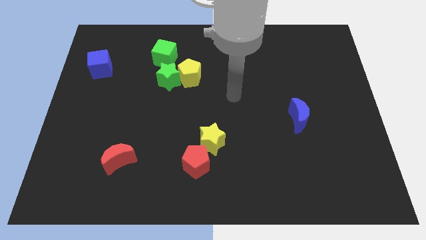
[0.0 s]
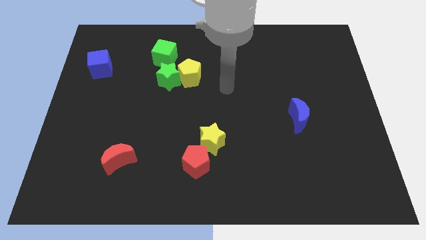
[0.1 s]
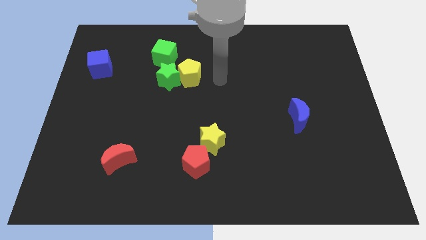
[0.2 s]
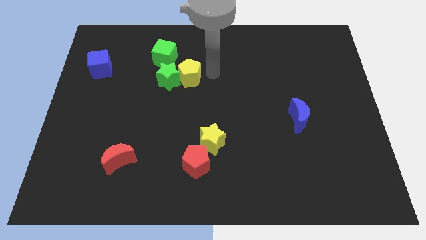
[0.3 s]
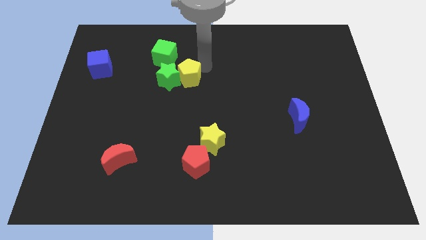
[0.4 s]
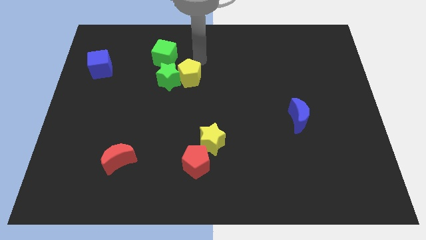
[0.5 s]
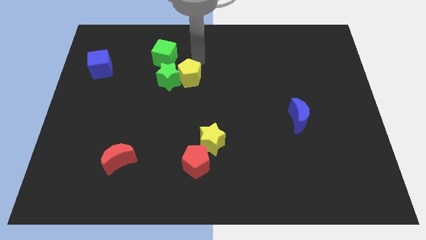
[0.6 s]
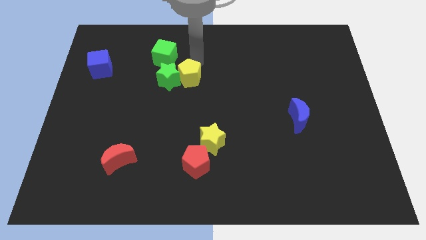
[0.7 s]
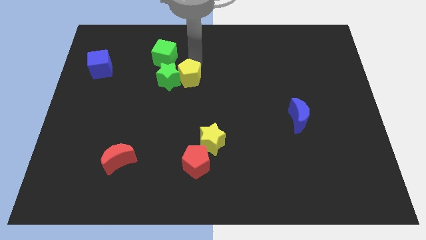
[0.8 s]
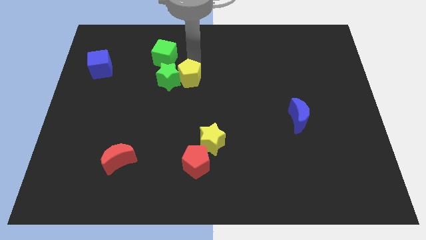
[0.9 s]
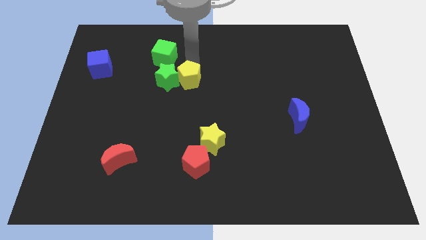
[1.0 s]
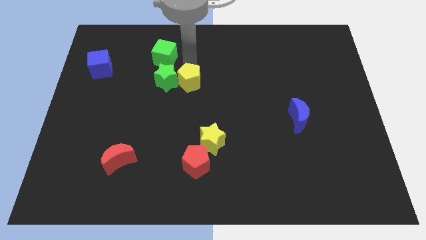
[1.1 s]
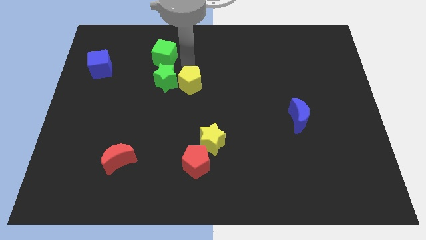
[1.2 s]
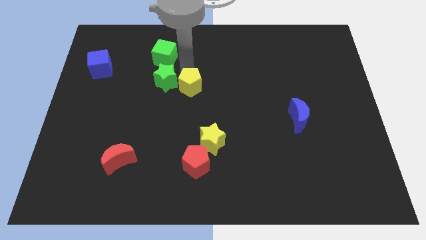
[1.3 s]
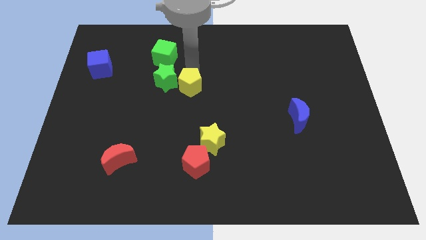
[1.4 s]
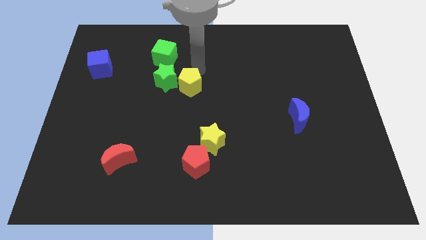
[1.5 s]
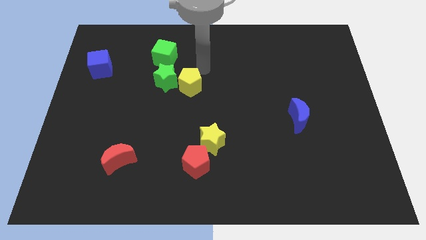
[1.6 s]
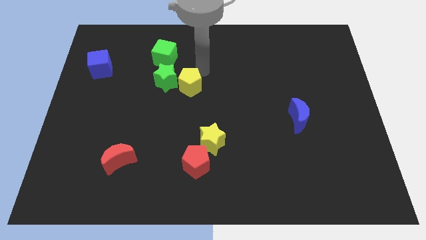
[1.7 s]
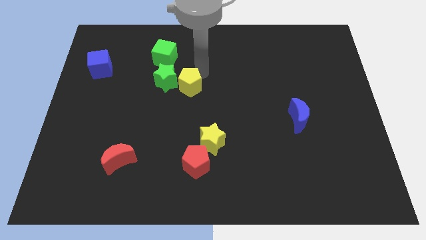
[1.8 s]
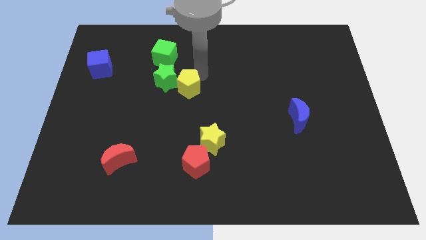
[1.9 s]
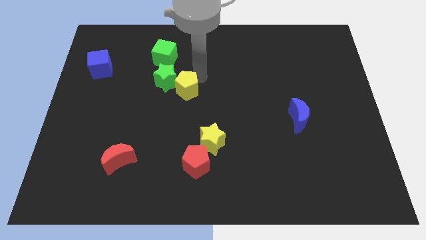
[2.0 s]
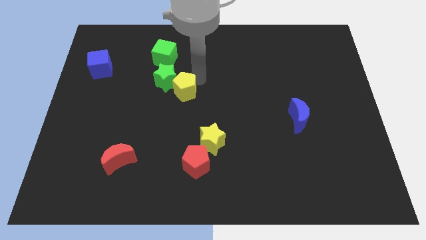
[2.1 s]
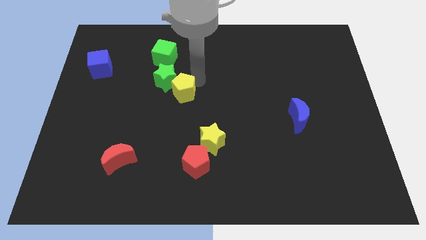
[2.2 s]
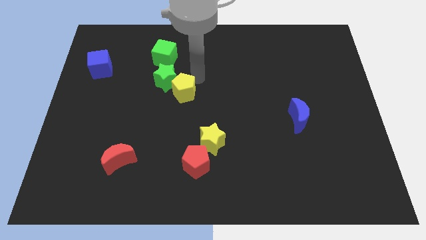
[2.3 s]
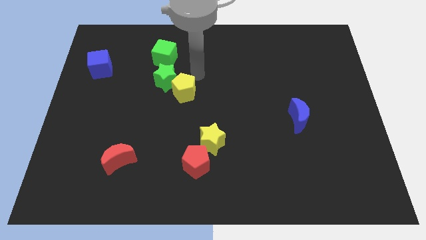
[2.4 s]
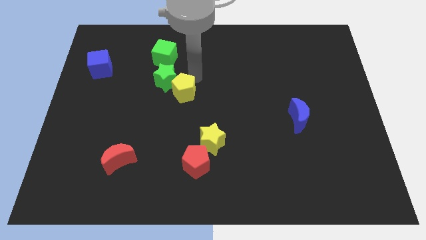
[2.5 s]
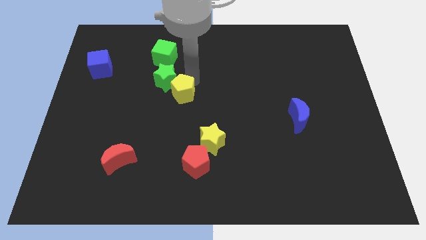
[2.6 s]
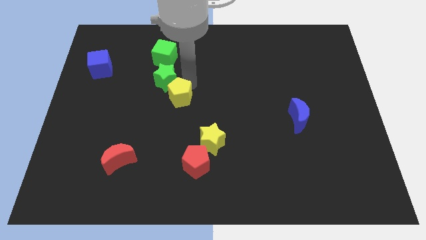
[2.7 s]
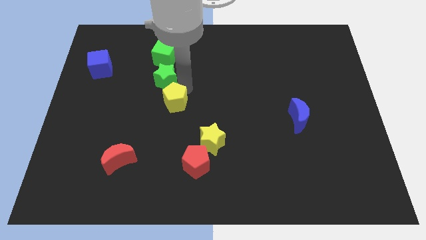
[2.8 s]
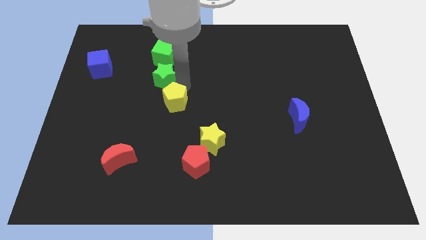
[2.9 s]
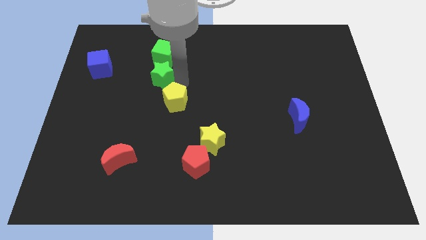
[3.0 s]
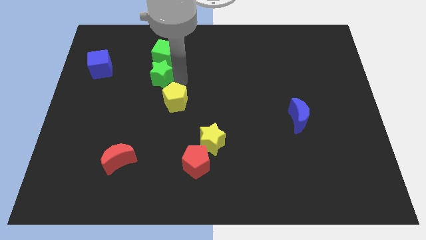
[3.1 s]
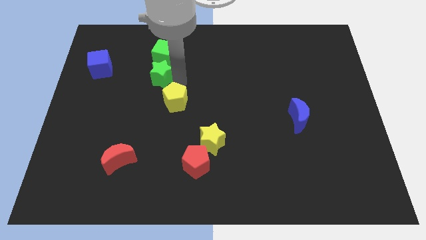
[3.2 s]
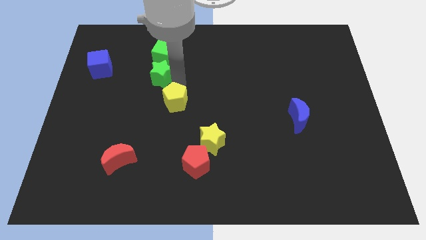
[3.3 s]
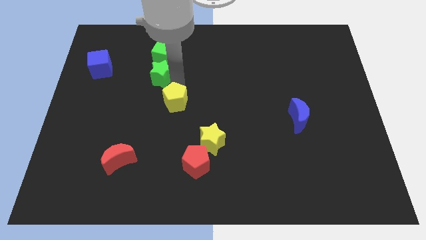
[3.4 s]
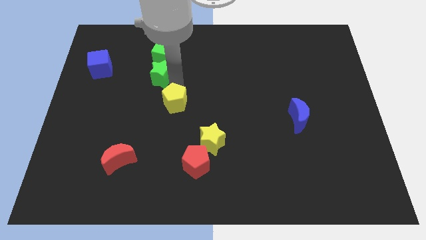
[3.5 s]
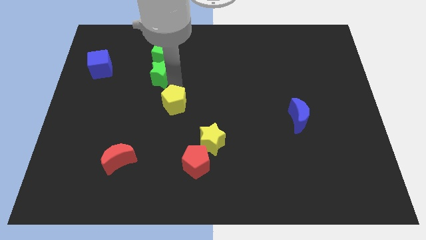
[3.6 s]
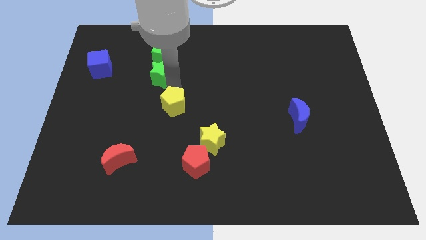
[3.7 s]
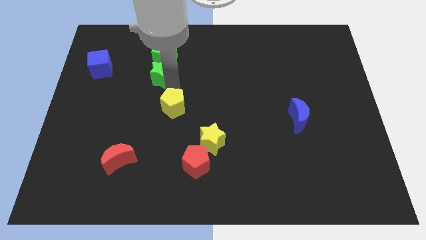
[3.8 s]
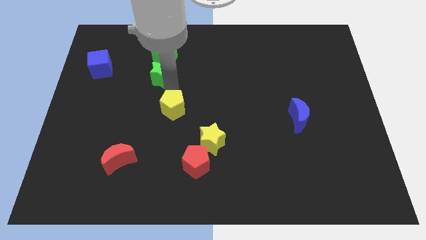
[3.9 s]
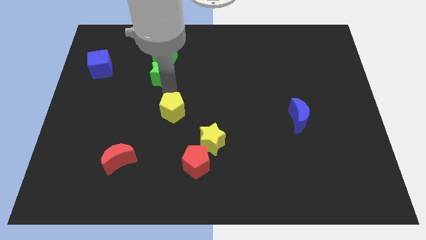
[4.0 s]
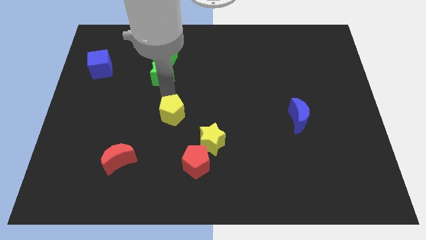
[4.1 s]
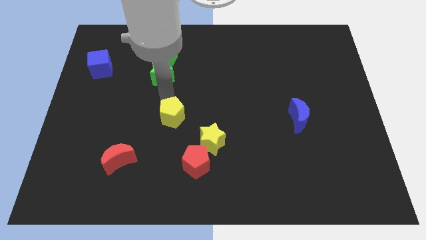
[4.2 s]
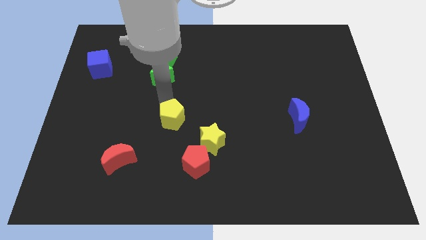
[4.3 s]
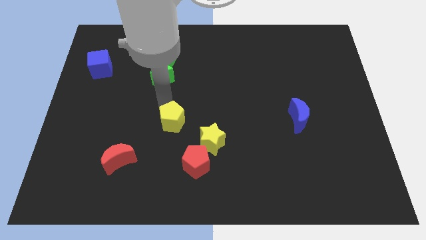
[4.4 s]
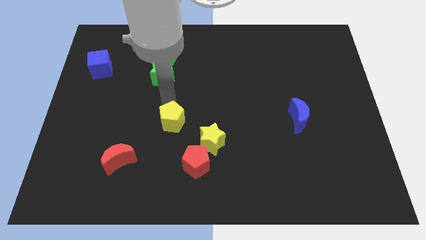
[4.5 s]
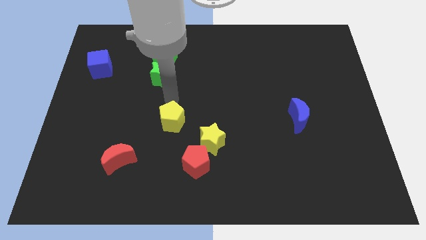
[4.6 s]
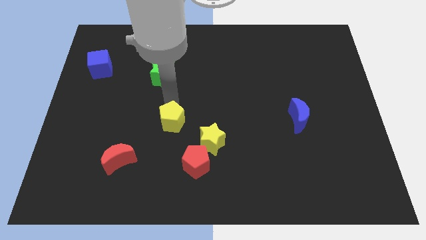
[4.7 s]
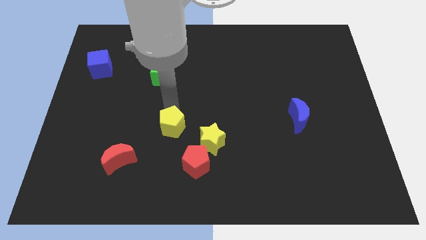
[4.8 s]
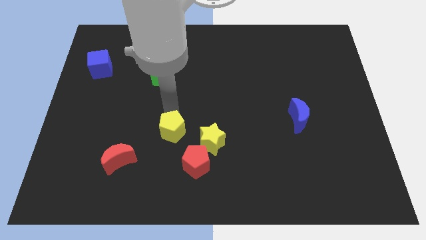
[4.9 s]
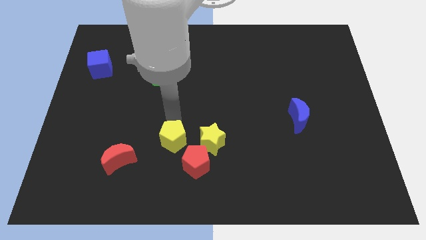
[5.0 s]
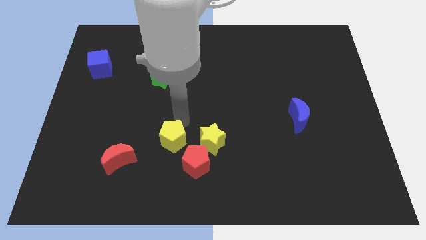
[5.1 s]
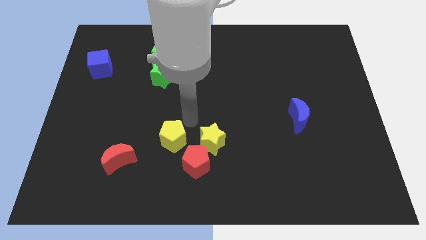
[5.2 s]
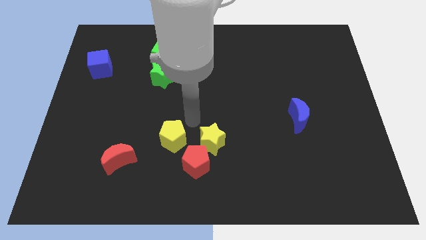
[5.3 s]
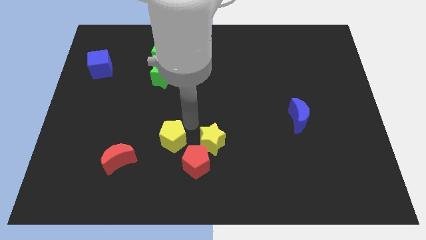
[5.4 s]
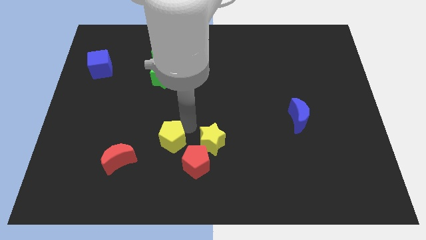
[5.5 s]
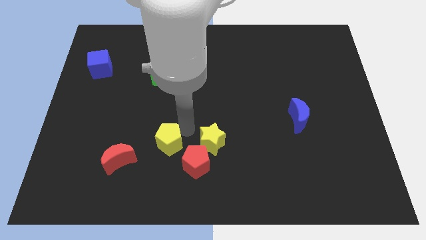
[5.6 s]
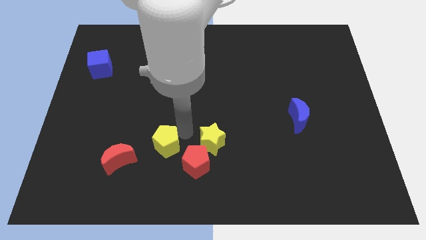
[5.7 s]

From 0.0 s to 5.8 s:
slide the yellow pentagon just left of the red pentagon

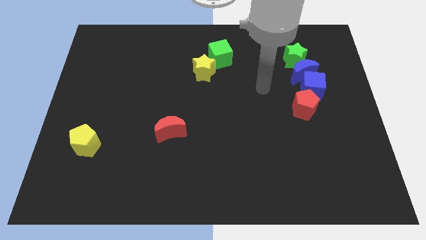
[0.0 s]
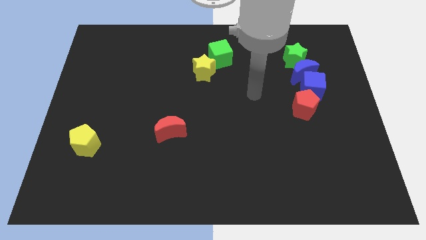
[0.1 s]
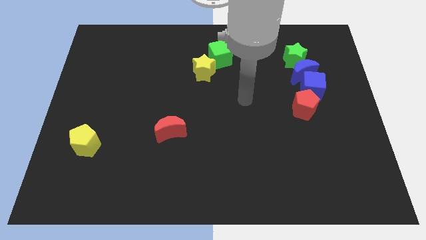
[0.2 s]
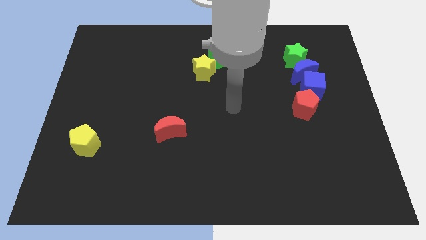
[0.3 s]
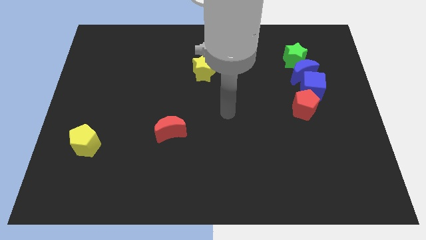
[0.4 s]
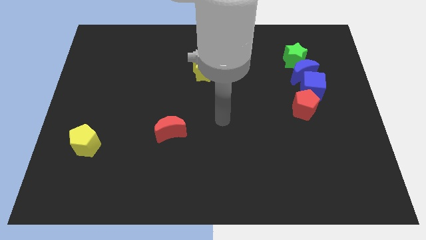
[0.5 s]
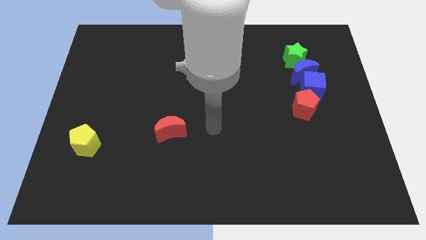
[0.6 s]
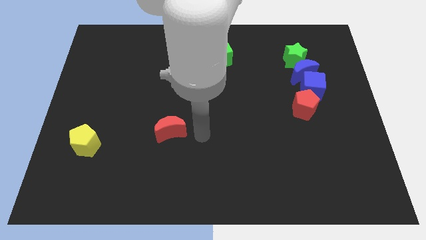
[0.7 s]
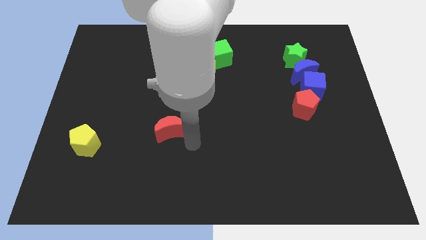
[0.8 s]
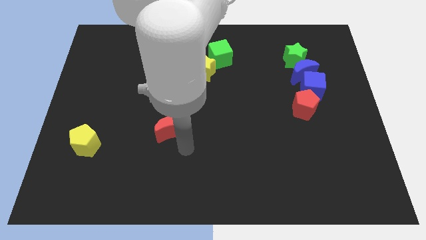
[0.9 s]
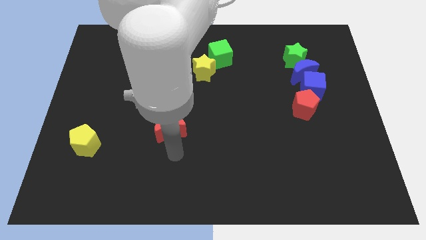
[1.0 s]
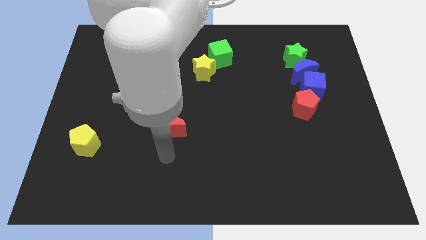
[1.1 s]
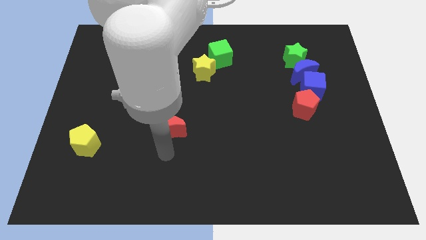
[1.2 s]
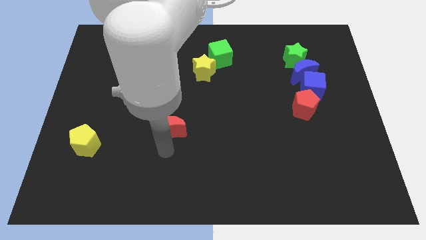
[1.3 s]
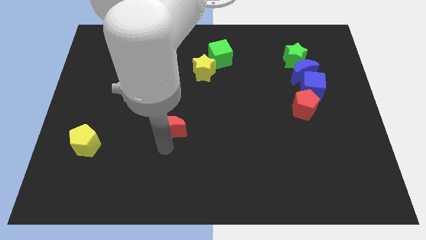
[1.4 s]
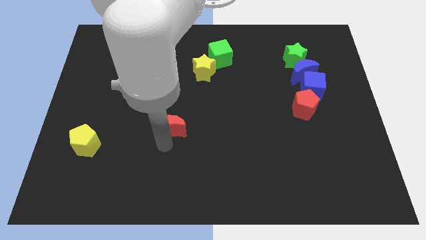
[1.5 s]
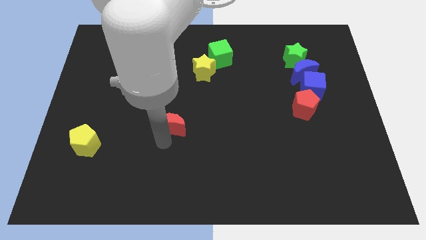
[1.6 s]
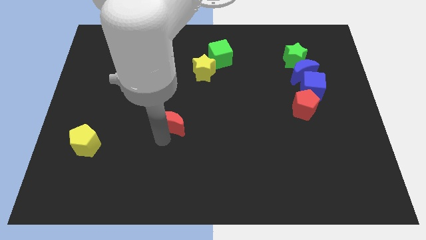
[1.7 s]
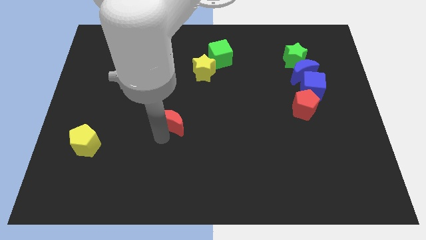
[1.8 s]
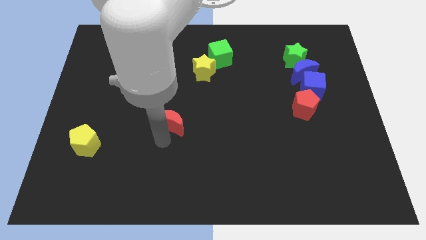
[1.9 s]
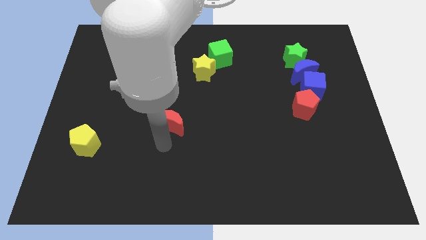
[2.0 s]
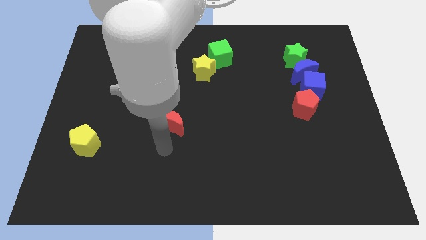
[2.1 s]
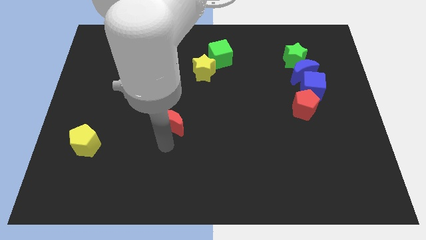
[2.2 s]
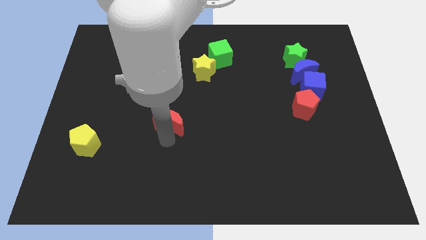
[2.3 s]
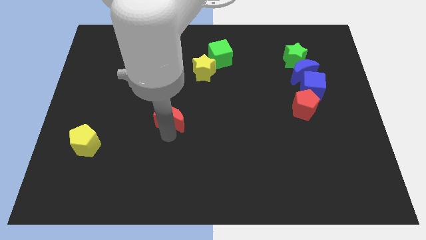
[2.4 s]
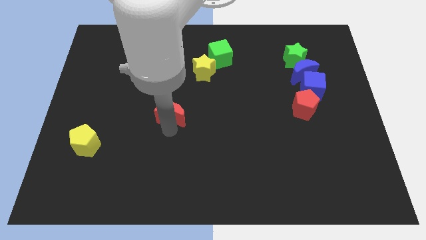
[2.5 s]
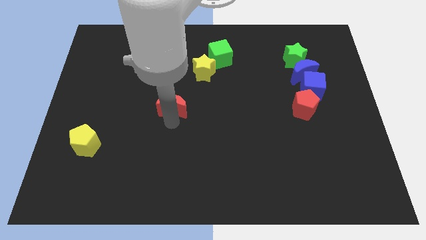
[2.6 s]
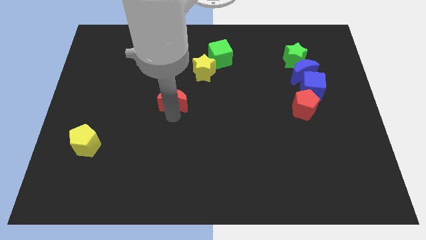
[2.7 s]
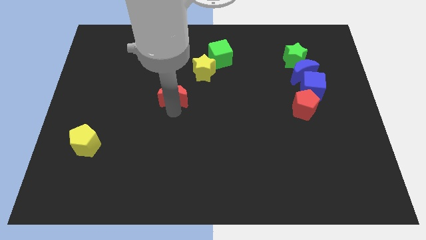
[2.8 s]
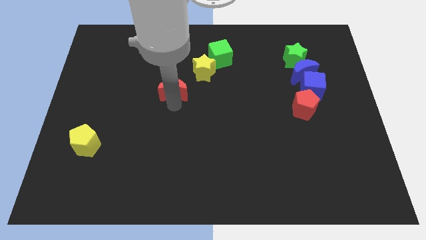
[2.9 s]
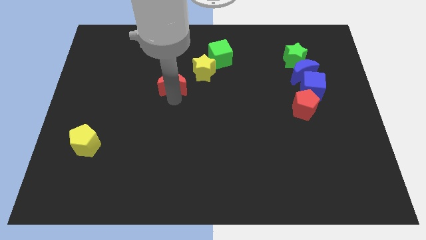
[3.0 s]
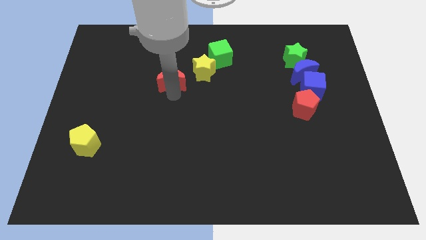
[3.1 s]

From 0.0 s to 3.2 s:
slide the red moon to the left of the yellow star
